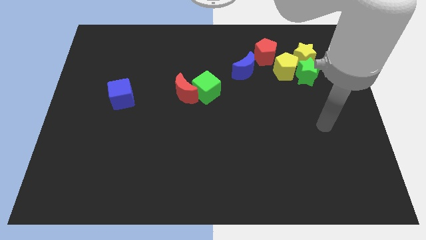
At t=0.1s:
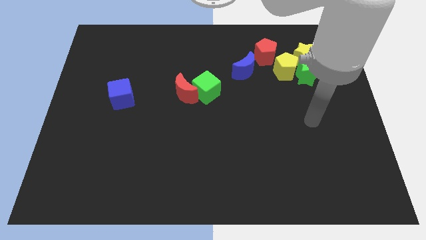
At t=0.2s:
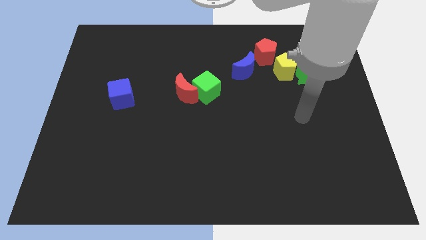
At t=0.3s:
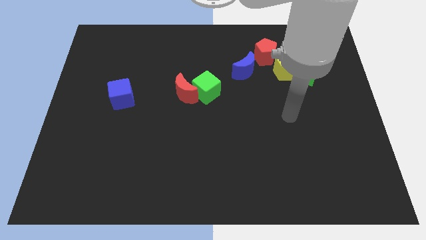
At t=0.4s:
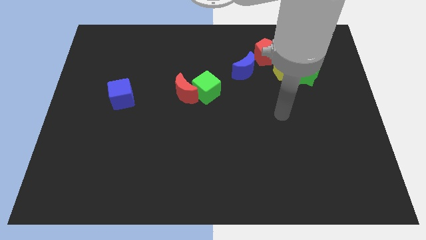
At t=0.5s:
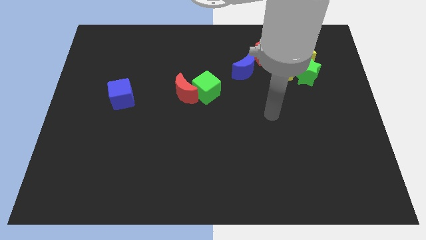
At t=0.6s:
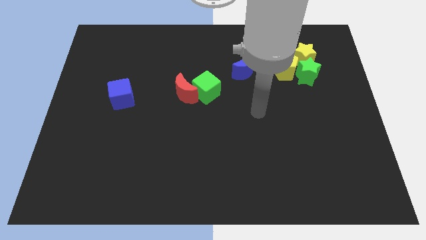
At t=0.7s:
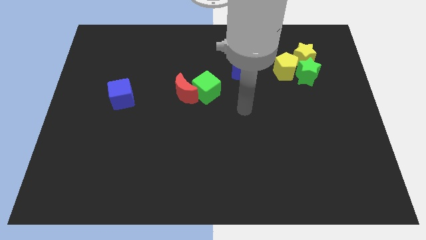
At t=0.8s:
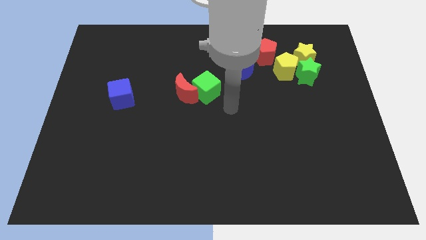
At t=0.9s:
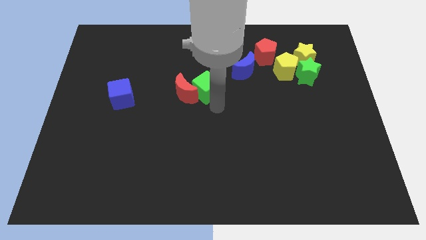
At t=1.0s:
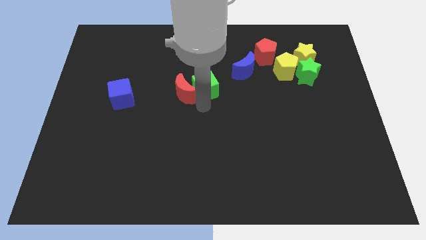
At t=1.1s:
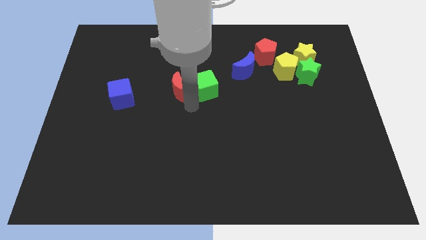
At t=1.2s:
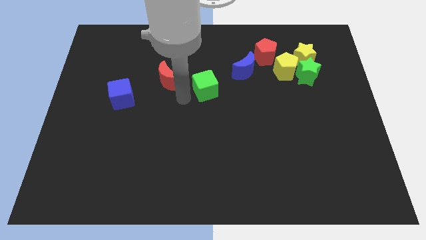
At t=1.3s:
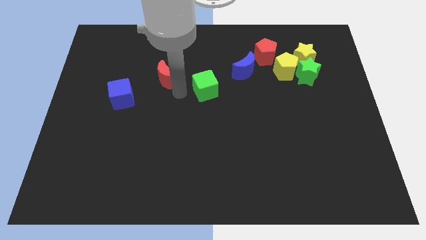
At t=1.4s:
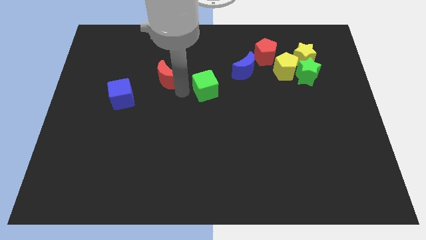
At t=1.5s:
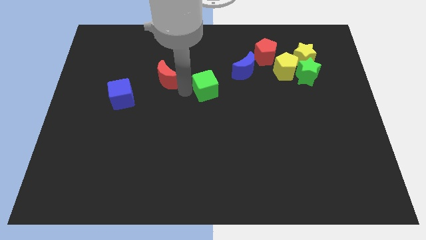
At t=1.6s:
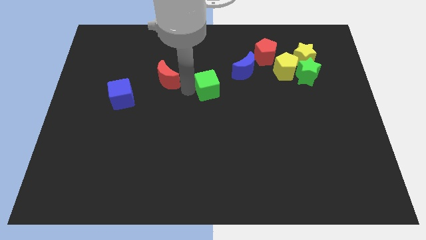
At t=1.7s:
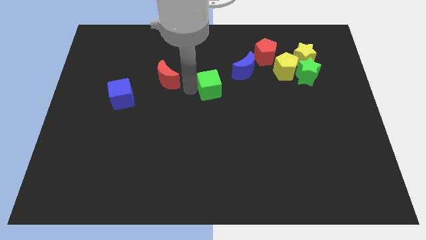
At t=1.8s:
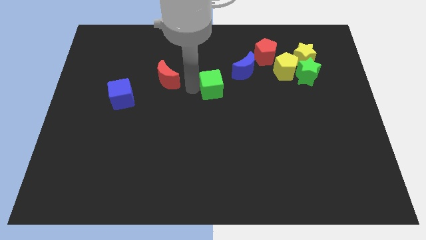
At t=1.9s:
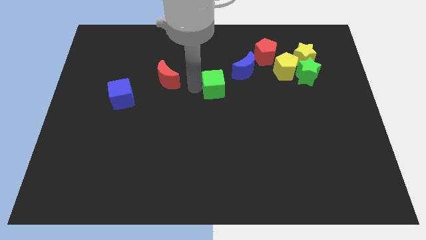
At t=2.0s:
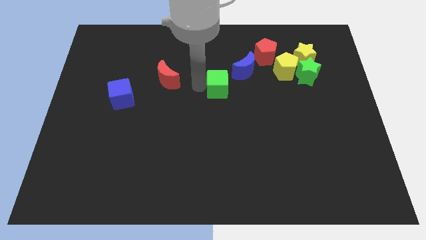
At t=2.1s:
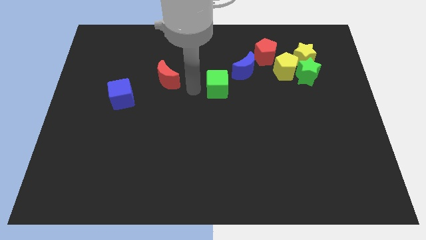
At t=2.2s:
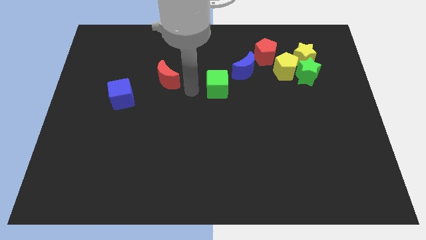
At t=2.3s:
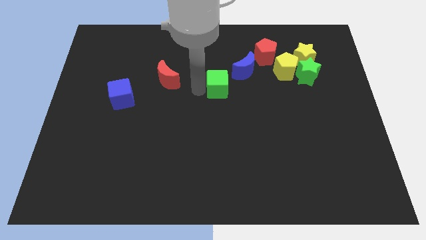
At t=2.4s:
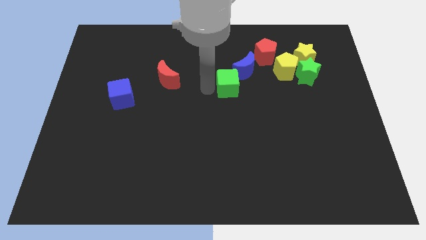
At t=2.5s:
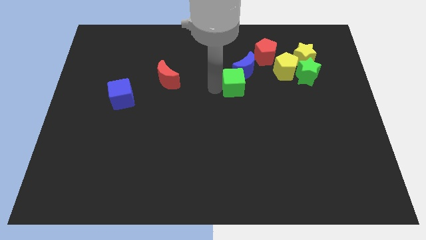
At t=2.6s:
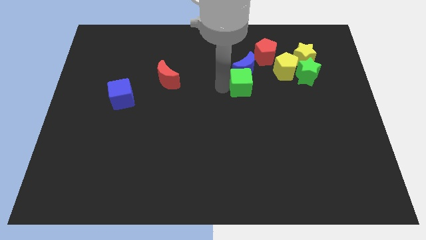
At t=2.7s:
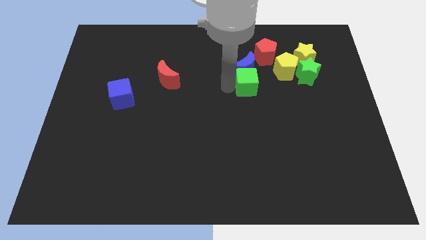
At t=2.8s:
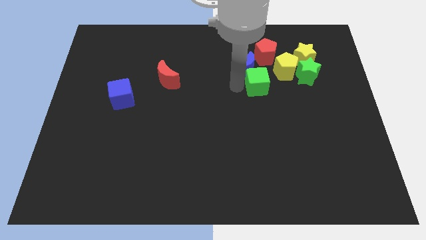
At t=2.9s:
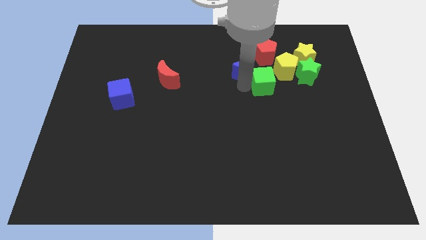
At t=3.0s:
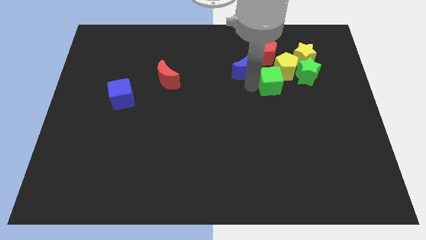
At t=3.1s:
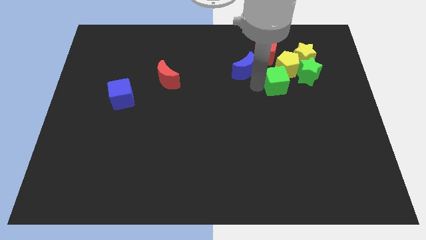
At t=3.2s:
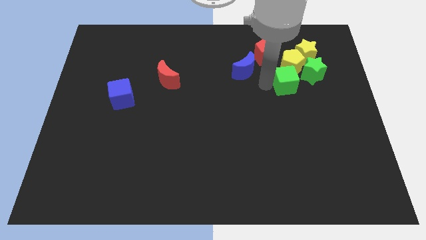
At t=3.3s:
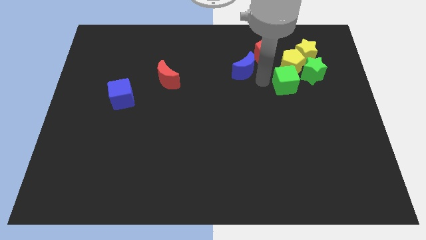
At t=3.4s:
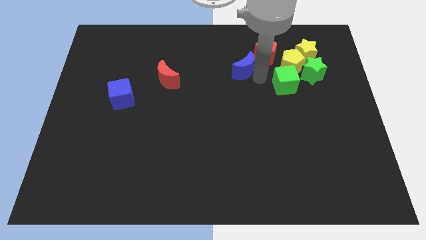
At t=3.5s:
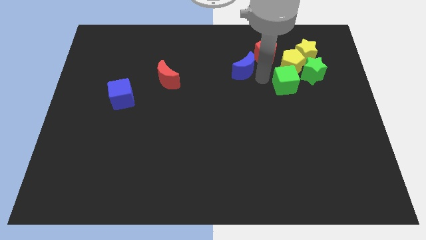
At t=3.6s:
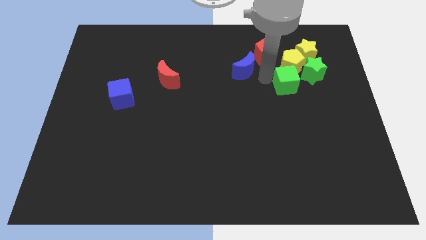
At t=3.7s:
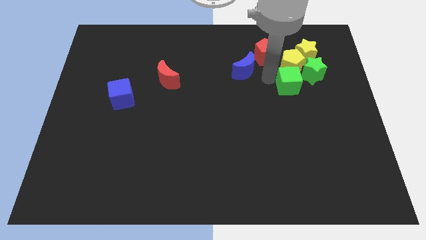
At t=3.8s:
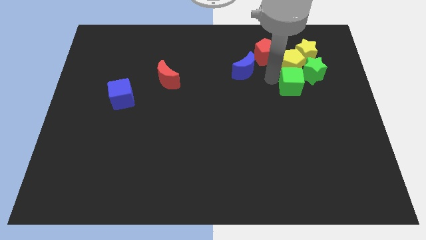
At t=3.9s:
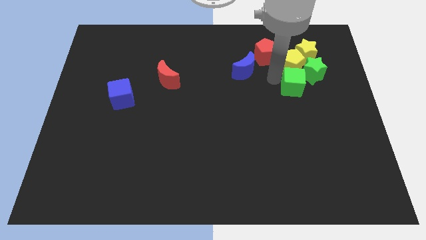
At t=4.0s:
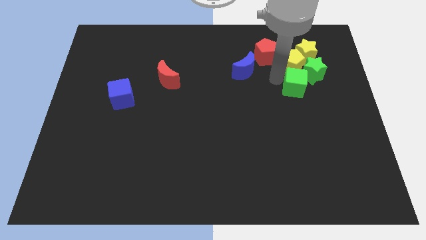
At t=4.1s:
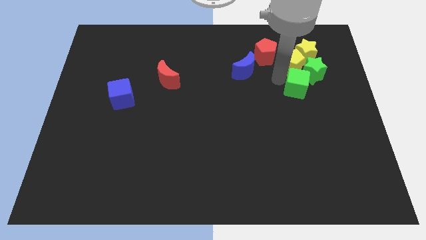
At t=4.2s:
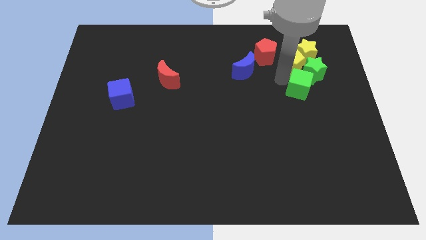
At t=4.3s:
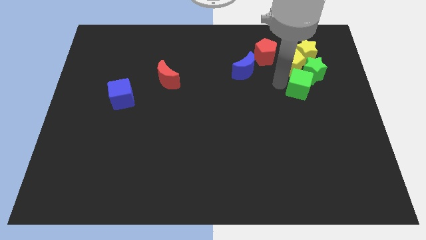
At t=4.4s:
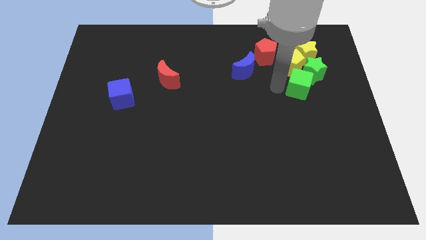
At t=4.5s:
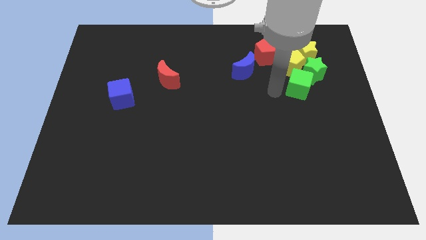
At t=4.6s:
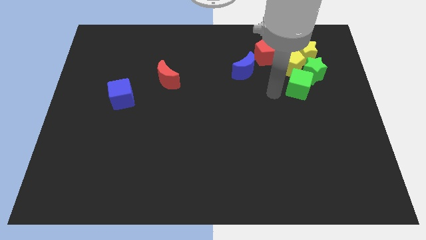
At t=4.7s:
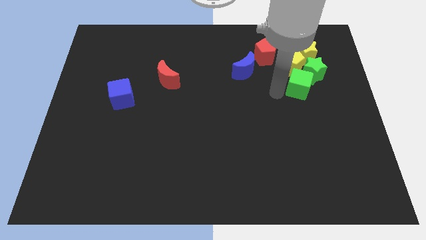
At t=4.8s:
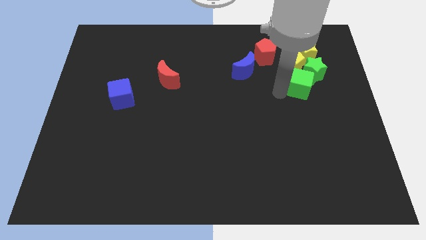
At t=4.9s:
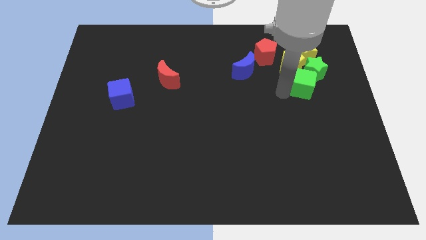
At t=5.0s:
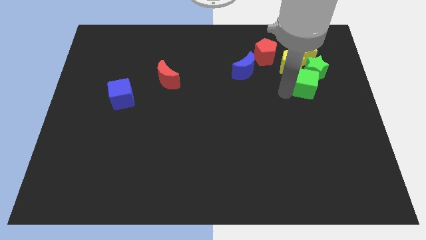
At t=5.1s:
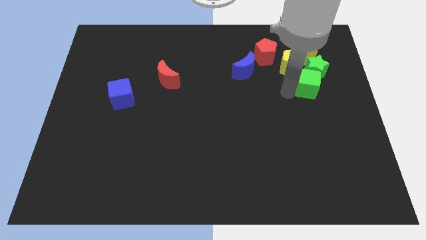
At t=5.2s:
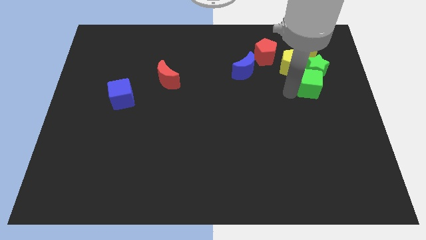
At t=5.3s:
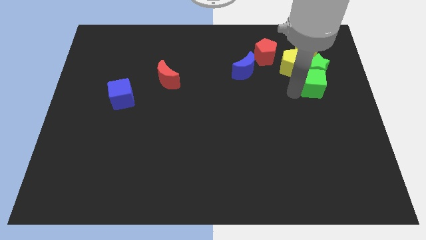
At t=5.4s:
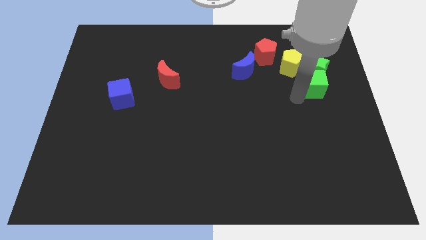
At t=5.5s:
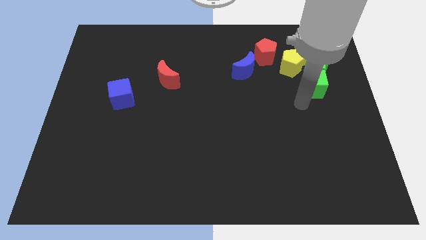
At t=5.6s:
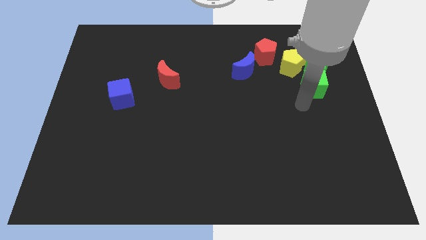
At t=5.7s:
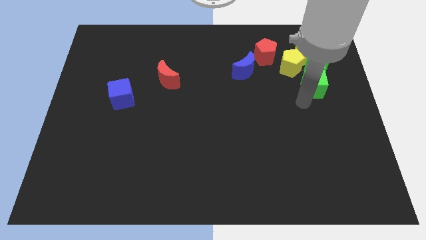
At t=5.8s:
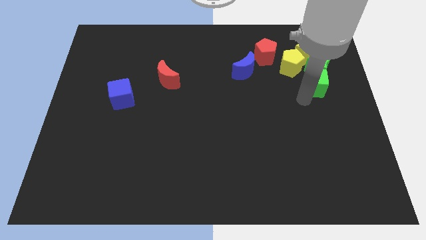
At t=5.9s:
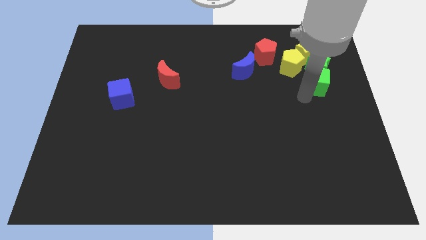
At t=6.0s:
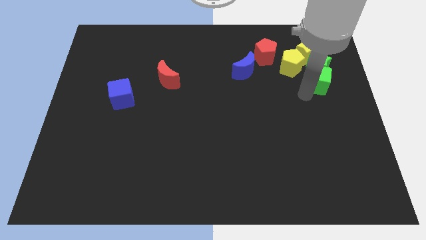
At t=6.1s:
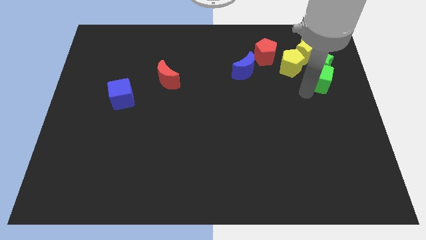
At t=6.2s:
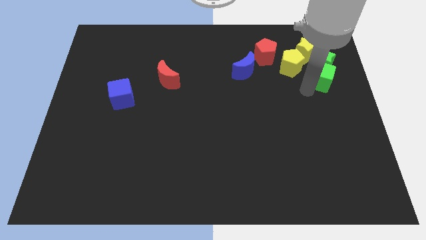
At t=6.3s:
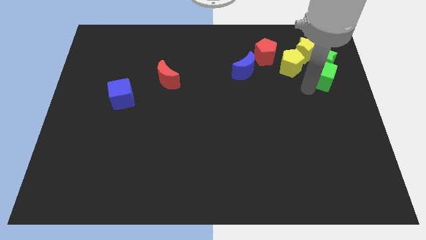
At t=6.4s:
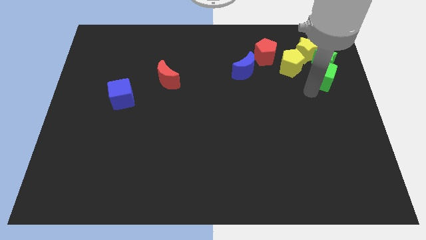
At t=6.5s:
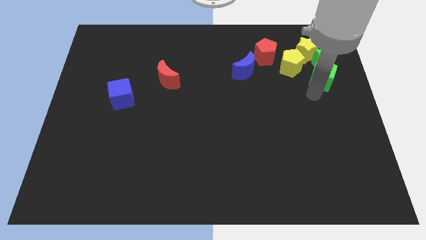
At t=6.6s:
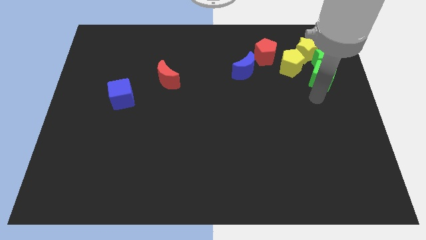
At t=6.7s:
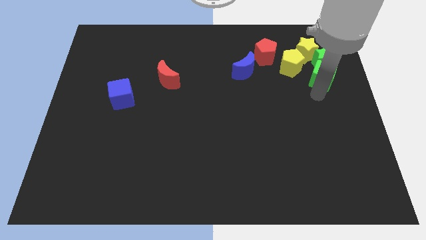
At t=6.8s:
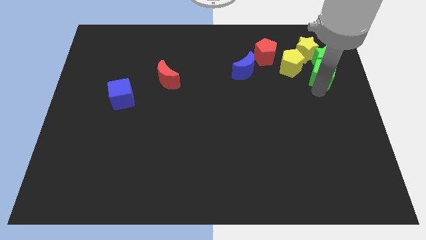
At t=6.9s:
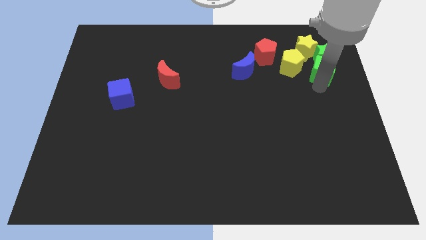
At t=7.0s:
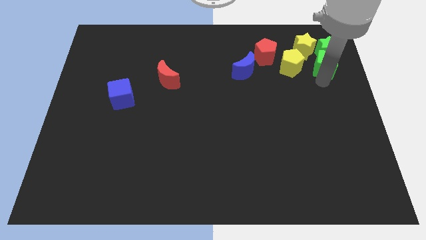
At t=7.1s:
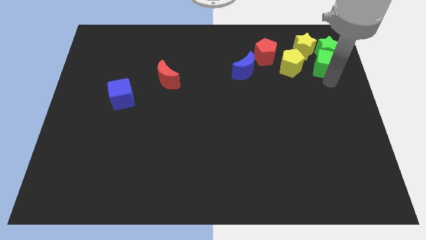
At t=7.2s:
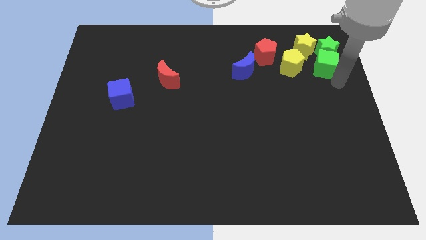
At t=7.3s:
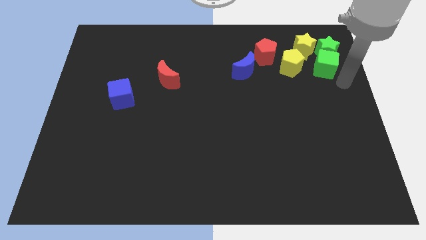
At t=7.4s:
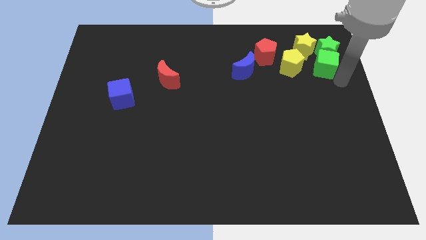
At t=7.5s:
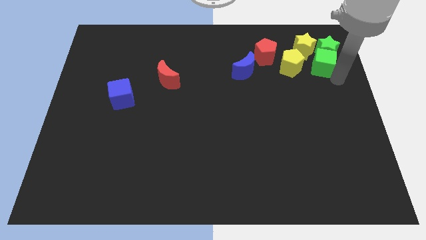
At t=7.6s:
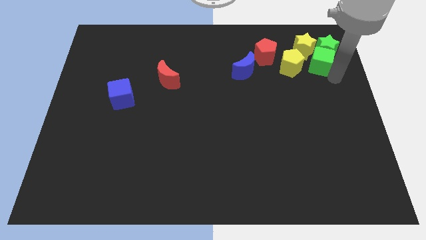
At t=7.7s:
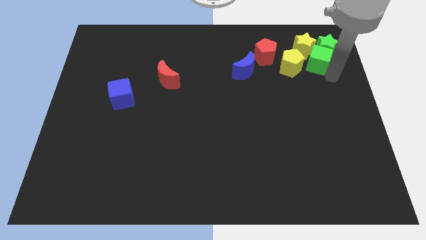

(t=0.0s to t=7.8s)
move the green cube close to the yellow star
